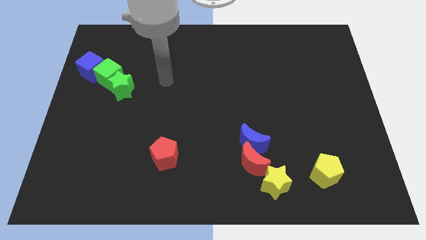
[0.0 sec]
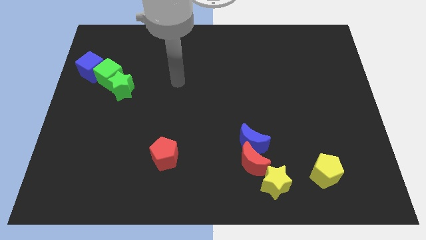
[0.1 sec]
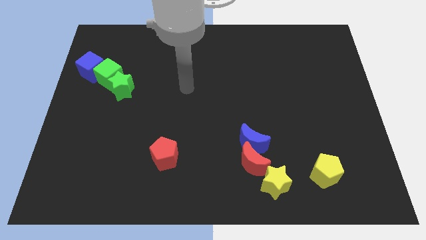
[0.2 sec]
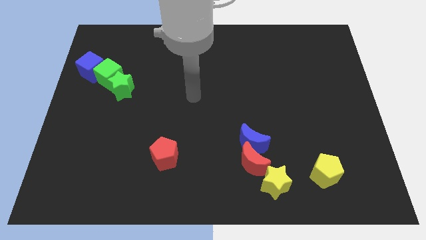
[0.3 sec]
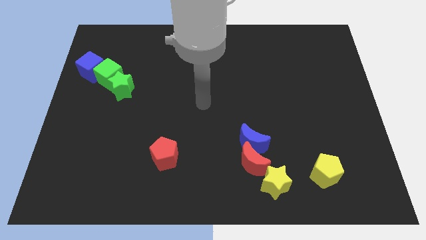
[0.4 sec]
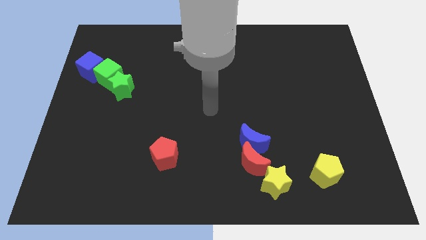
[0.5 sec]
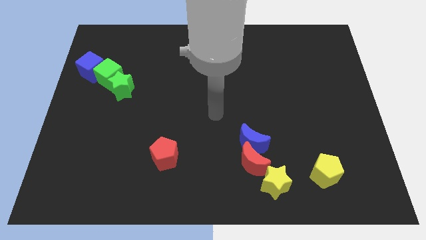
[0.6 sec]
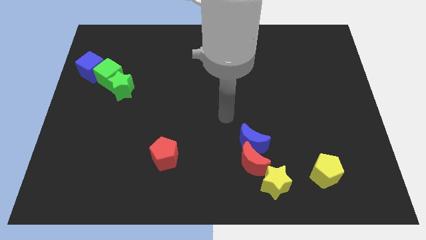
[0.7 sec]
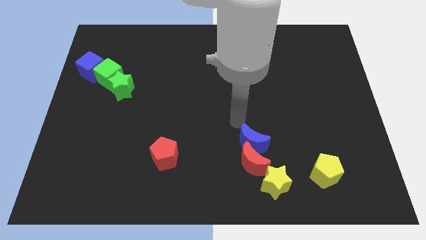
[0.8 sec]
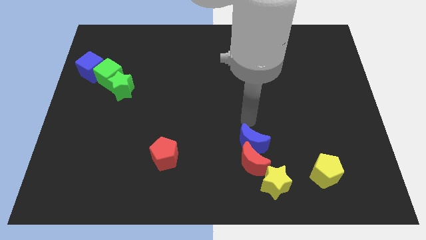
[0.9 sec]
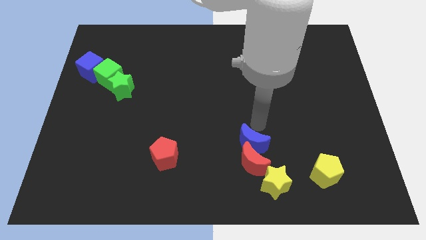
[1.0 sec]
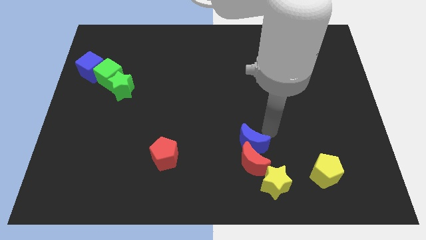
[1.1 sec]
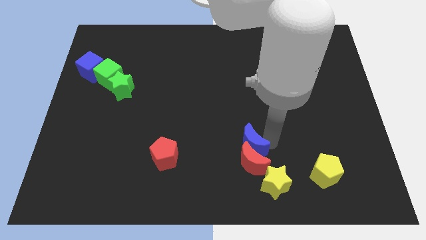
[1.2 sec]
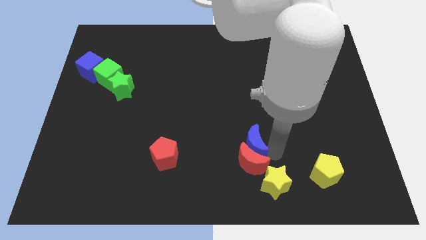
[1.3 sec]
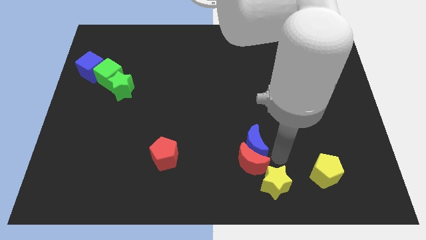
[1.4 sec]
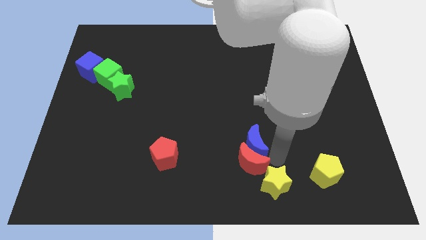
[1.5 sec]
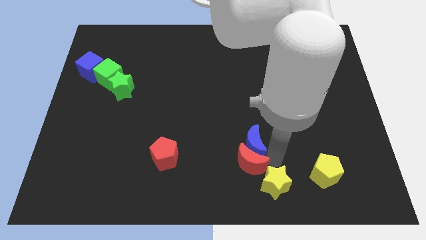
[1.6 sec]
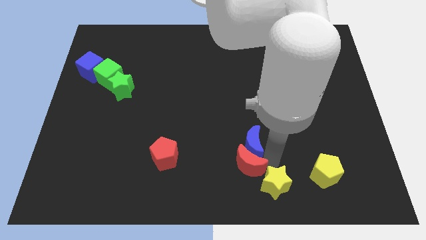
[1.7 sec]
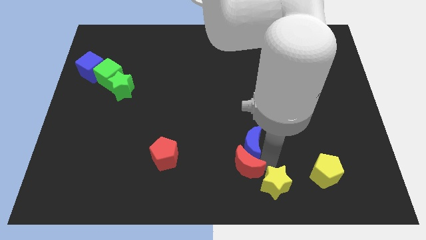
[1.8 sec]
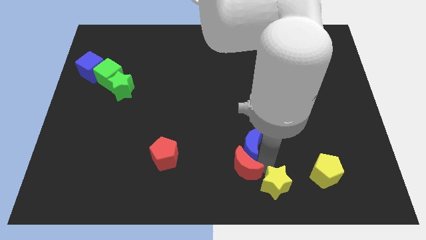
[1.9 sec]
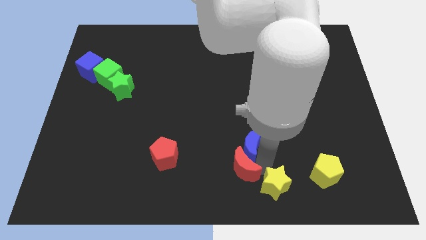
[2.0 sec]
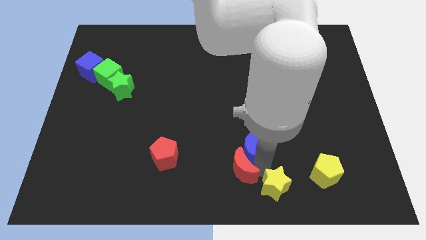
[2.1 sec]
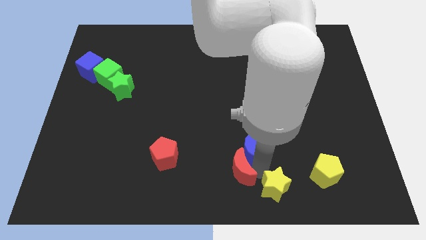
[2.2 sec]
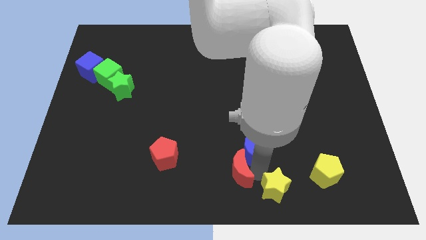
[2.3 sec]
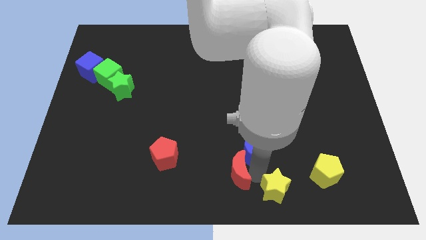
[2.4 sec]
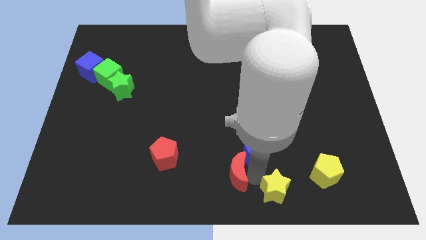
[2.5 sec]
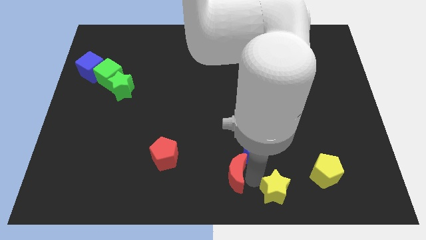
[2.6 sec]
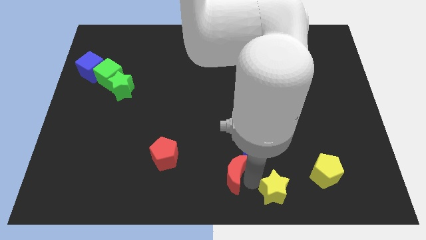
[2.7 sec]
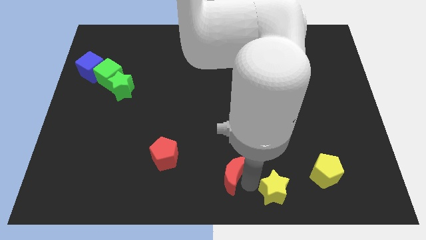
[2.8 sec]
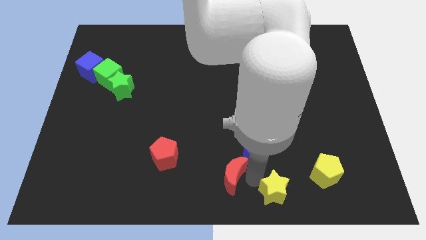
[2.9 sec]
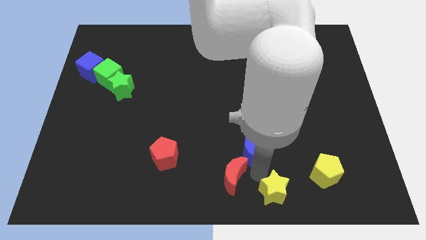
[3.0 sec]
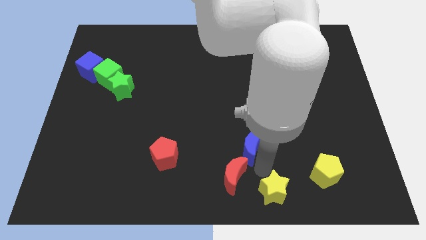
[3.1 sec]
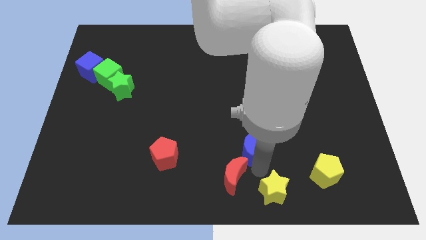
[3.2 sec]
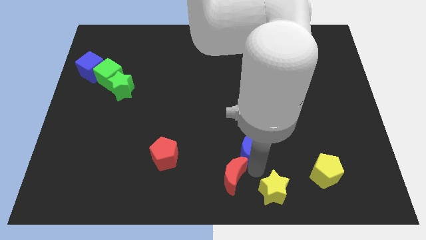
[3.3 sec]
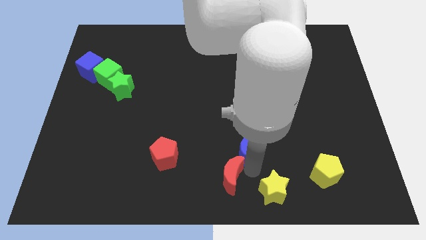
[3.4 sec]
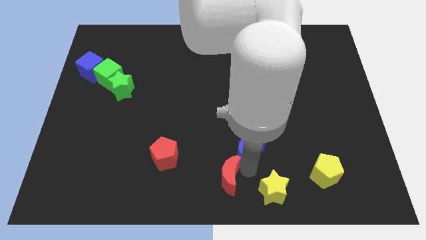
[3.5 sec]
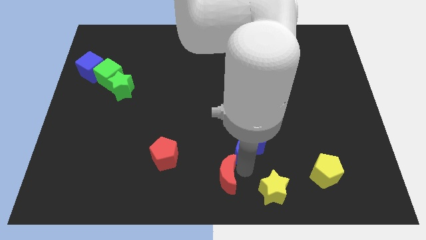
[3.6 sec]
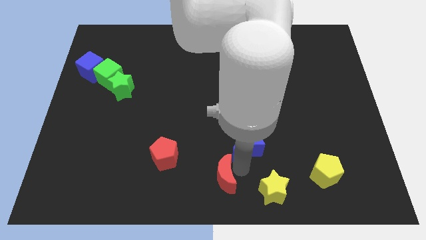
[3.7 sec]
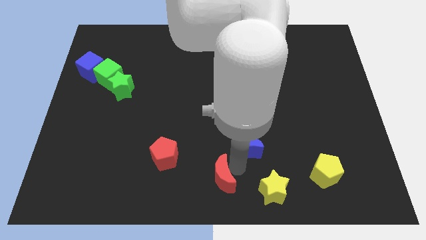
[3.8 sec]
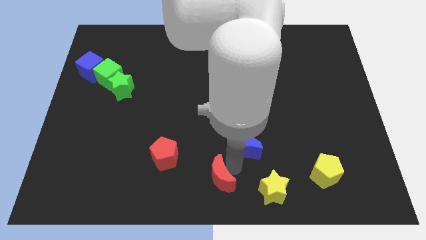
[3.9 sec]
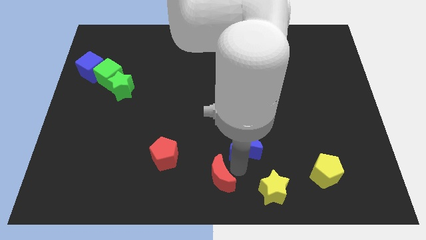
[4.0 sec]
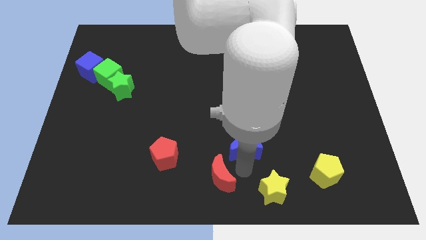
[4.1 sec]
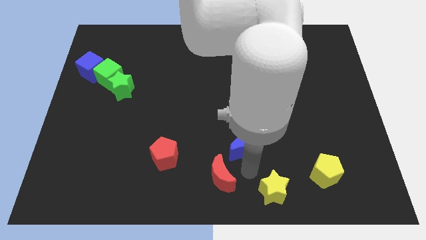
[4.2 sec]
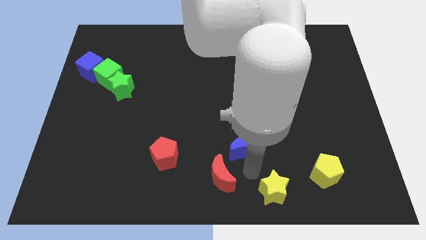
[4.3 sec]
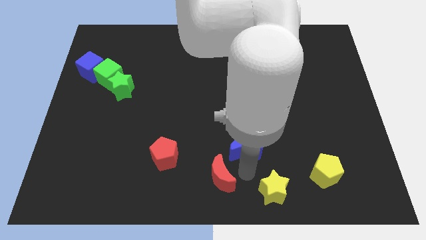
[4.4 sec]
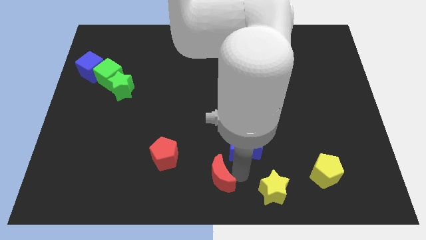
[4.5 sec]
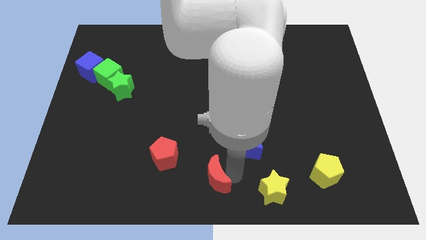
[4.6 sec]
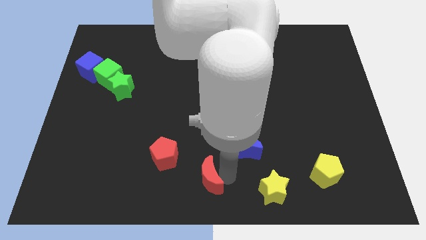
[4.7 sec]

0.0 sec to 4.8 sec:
move the red moon away from the blue moon and yellow star

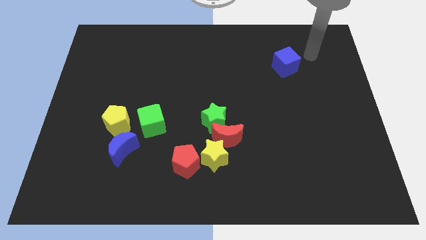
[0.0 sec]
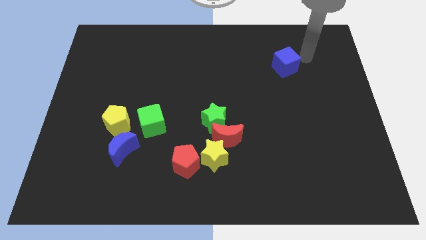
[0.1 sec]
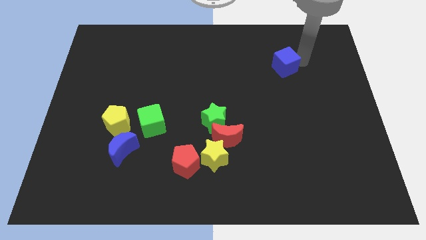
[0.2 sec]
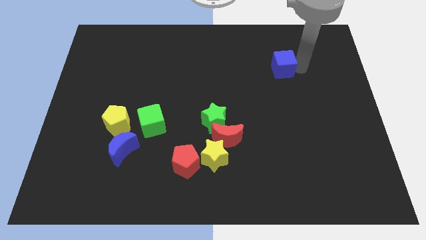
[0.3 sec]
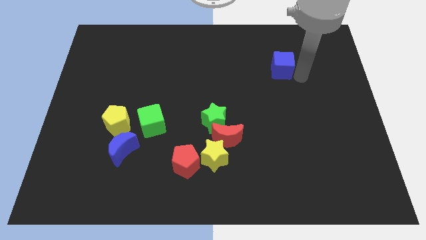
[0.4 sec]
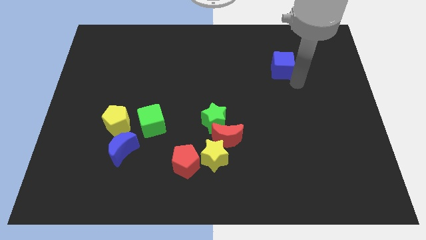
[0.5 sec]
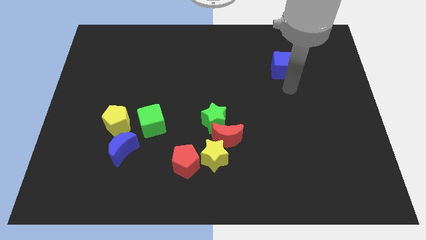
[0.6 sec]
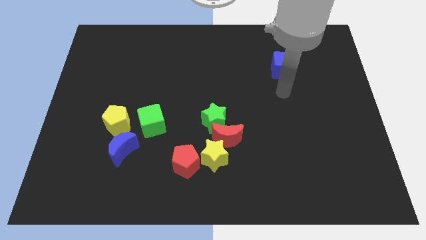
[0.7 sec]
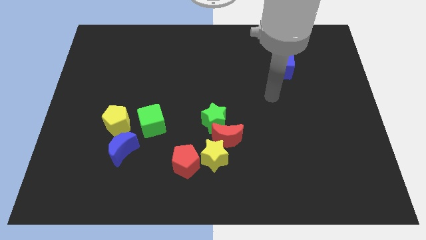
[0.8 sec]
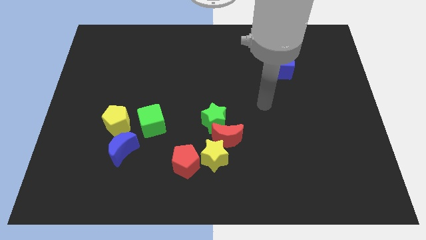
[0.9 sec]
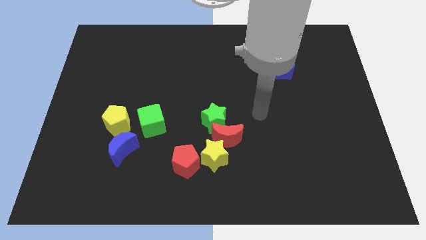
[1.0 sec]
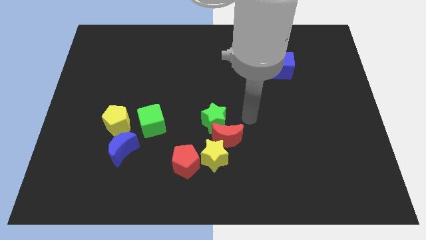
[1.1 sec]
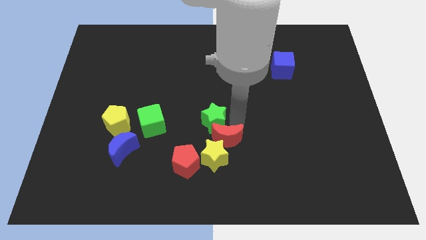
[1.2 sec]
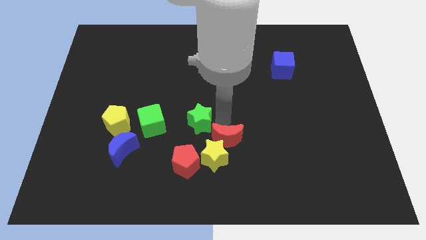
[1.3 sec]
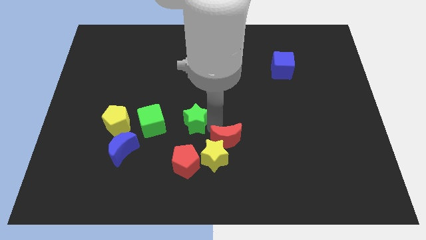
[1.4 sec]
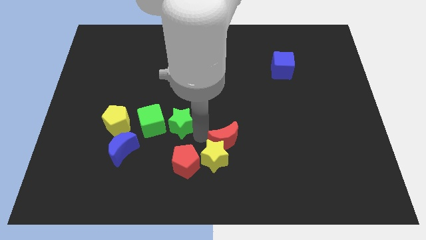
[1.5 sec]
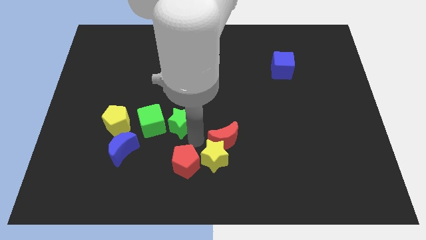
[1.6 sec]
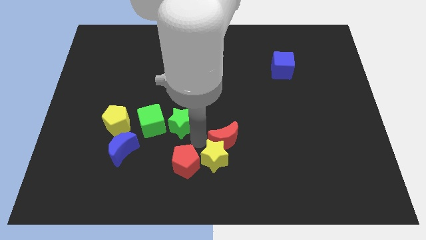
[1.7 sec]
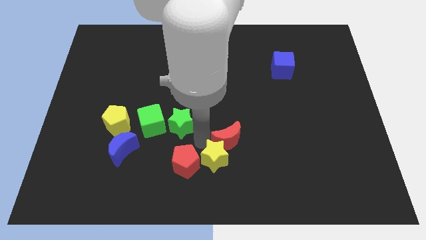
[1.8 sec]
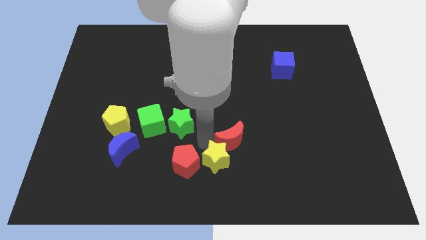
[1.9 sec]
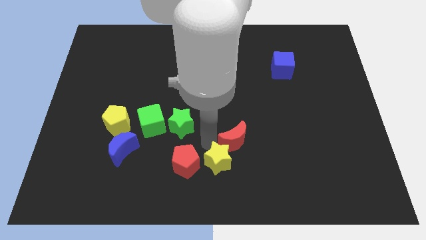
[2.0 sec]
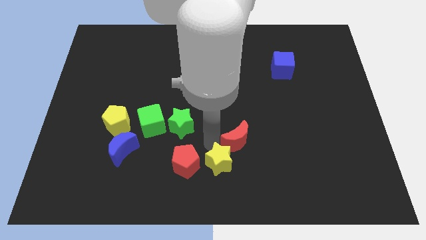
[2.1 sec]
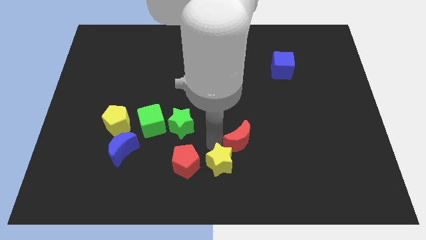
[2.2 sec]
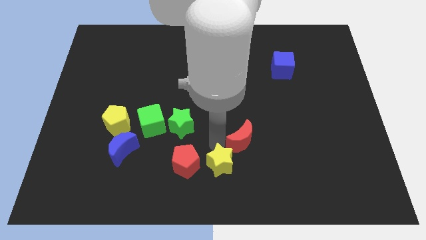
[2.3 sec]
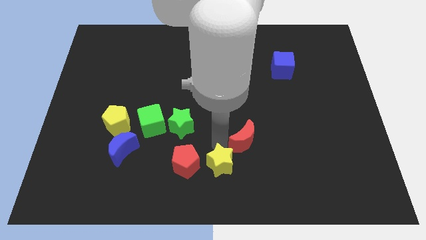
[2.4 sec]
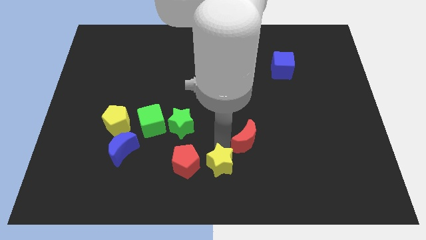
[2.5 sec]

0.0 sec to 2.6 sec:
pull the red moon apart from the green star and yellow star

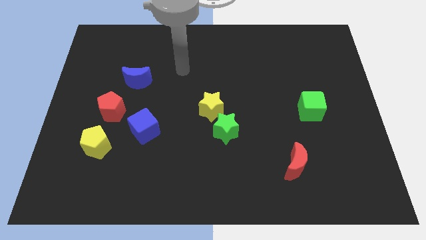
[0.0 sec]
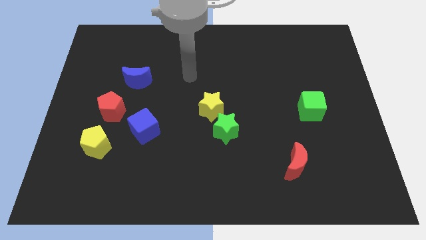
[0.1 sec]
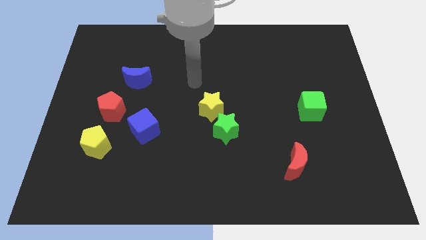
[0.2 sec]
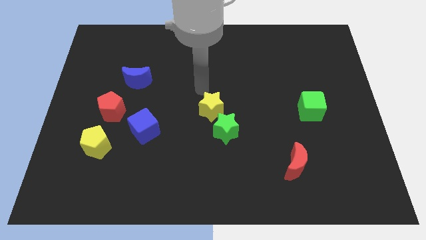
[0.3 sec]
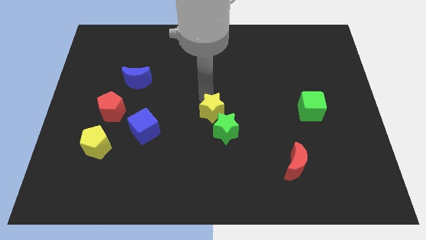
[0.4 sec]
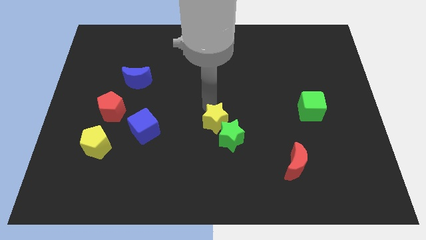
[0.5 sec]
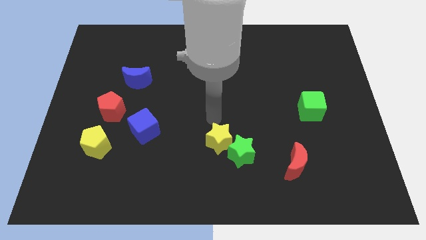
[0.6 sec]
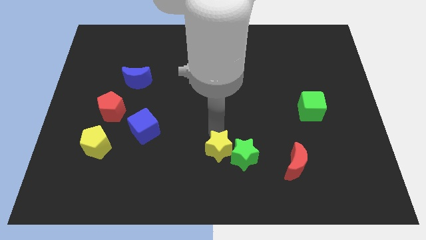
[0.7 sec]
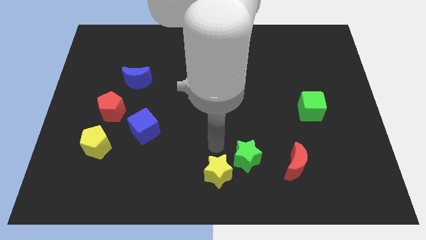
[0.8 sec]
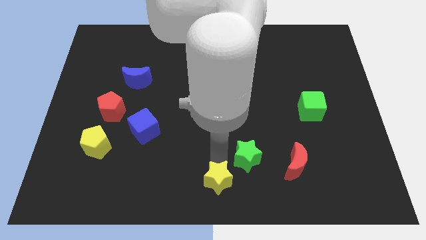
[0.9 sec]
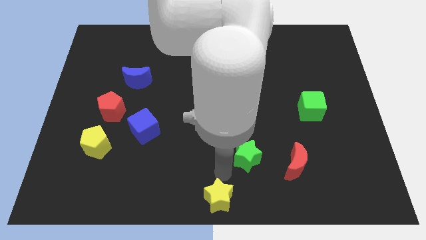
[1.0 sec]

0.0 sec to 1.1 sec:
pull the green star apart from the yellow star

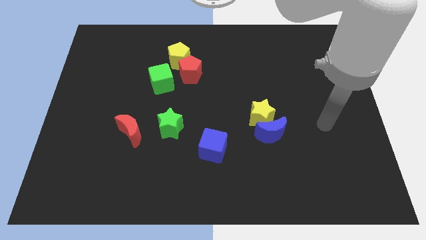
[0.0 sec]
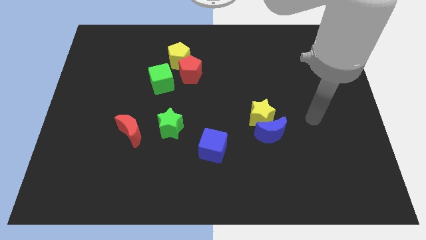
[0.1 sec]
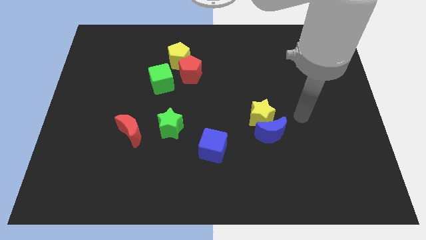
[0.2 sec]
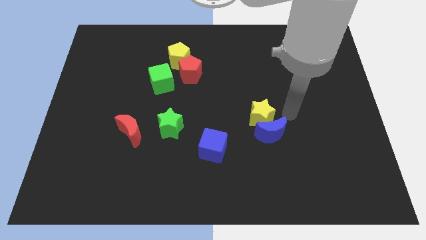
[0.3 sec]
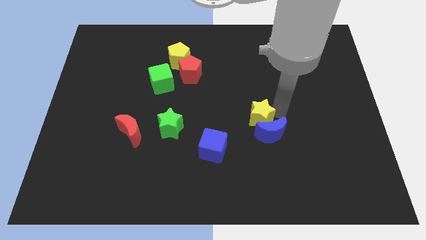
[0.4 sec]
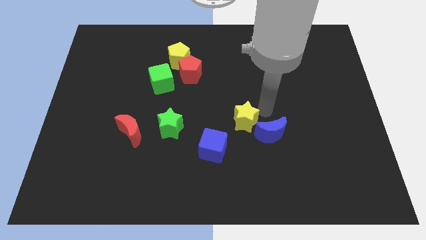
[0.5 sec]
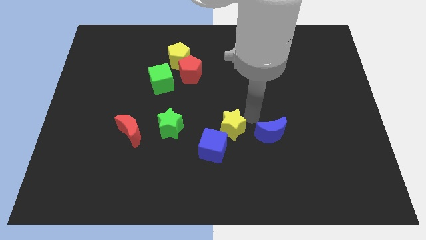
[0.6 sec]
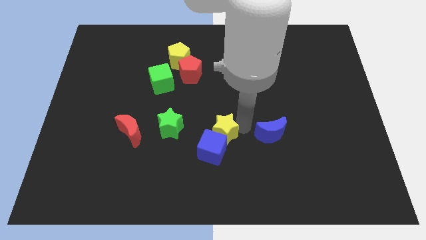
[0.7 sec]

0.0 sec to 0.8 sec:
separate the blue moon from the yellow star
